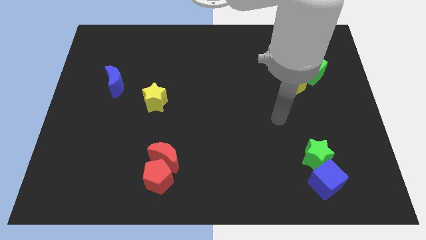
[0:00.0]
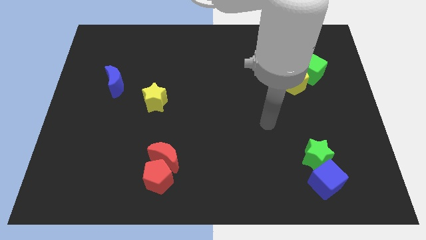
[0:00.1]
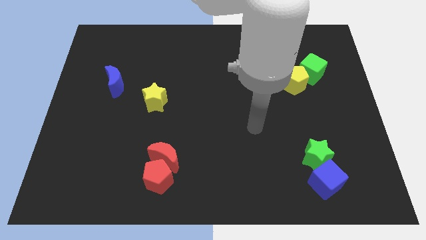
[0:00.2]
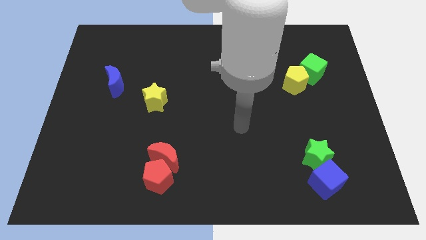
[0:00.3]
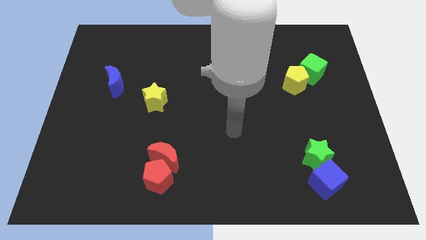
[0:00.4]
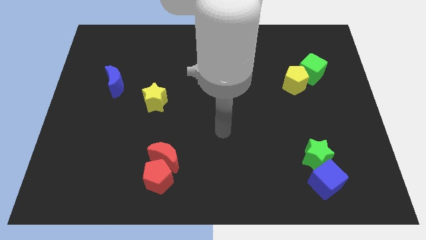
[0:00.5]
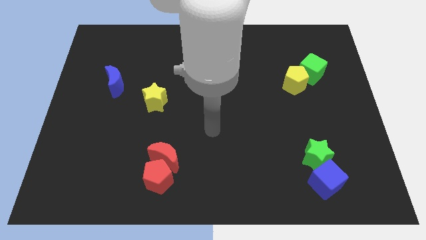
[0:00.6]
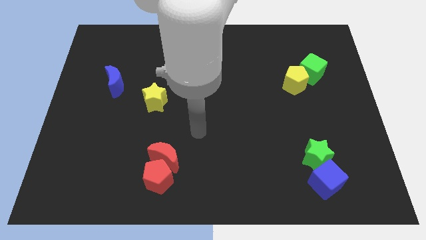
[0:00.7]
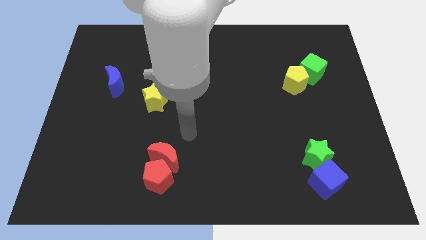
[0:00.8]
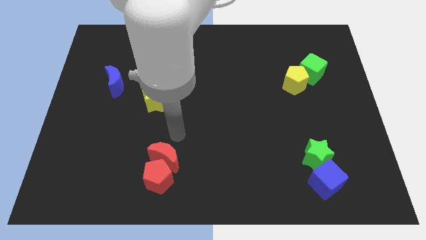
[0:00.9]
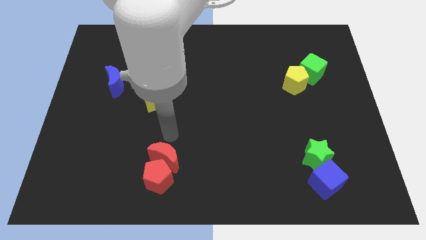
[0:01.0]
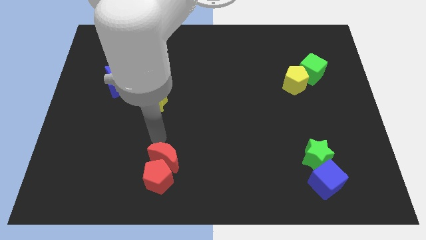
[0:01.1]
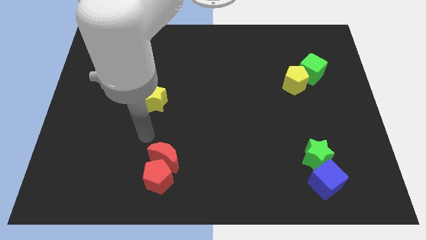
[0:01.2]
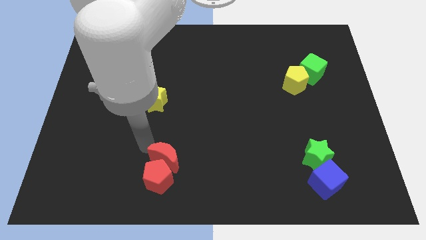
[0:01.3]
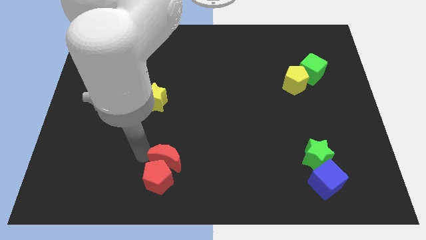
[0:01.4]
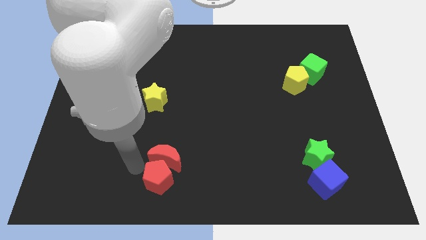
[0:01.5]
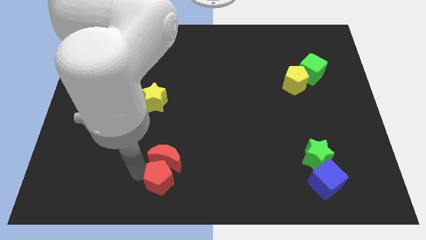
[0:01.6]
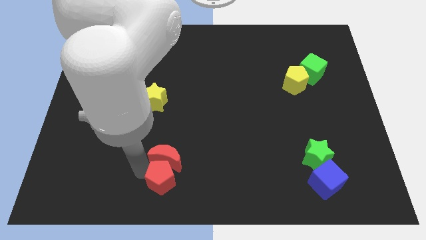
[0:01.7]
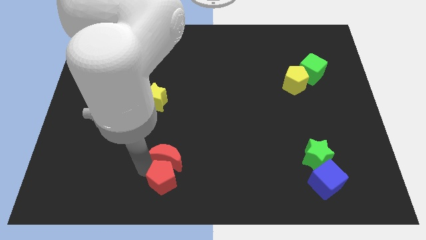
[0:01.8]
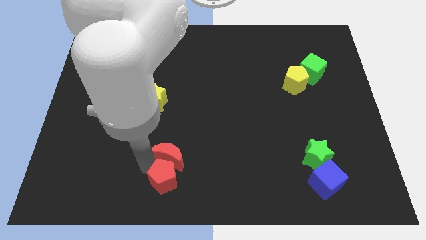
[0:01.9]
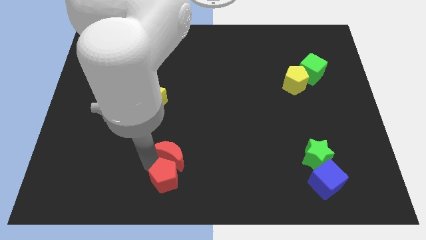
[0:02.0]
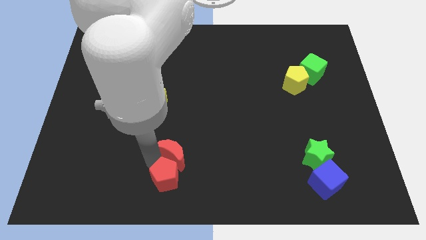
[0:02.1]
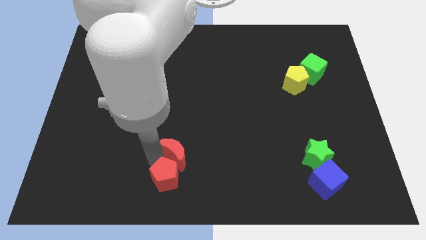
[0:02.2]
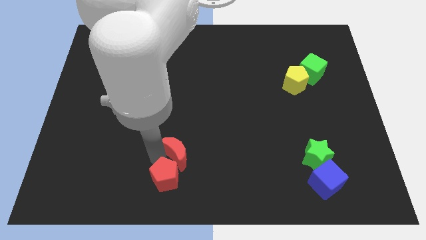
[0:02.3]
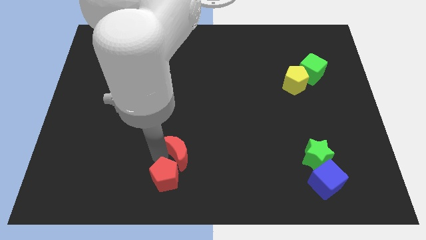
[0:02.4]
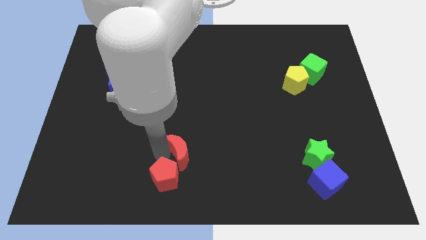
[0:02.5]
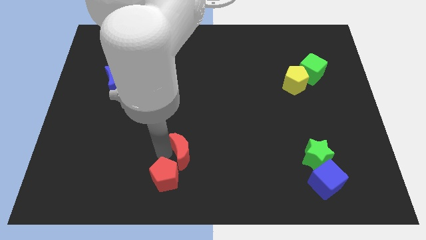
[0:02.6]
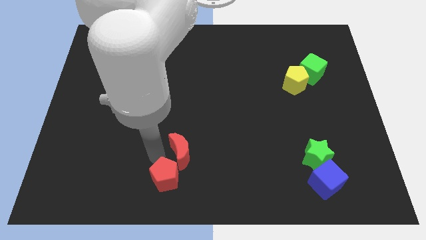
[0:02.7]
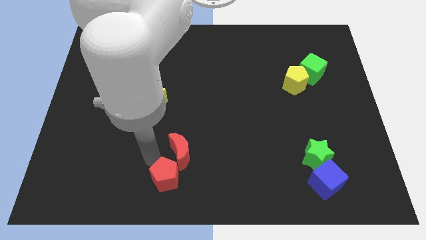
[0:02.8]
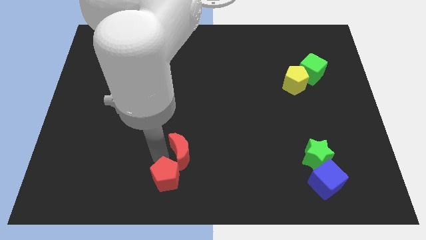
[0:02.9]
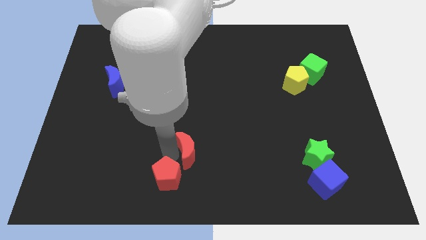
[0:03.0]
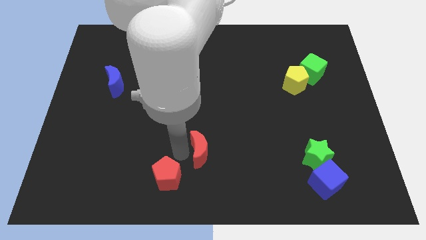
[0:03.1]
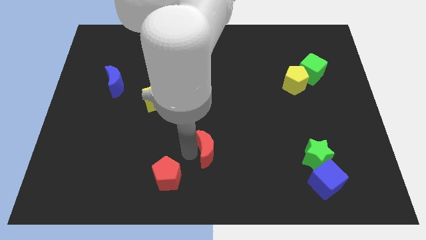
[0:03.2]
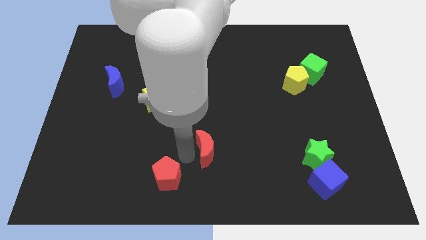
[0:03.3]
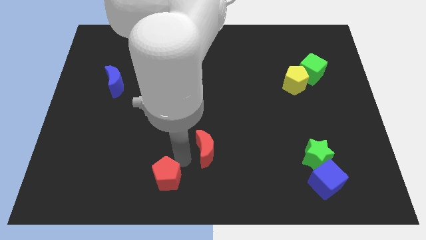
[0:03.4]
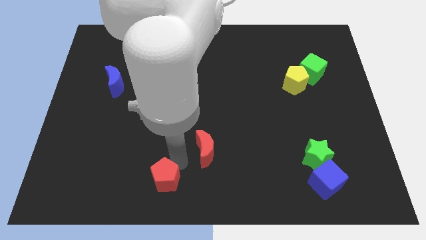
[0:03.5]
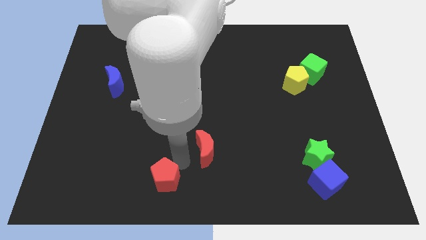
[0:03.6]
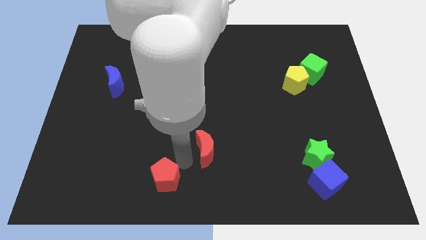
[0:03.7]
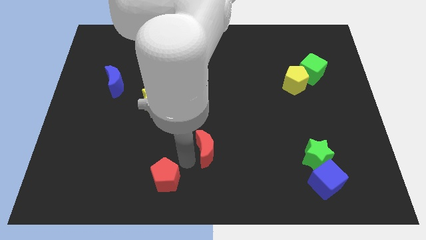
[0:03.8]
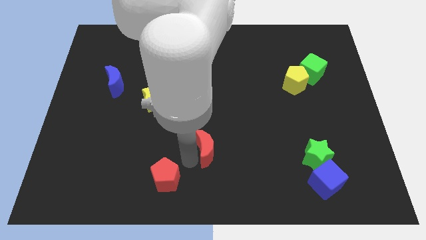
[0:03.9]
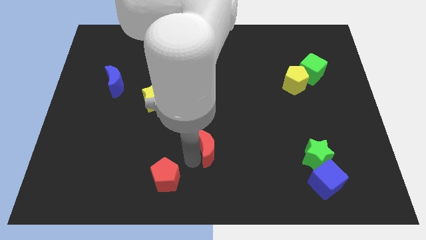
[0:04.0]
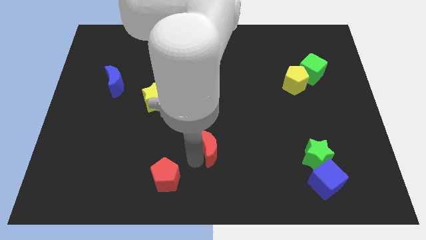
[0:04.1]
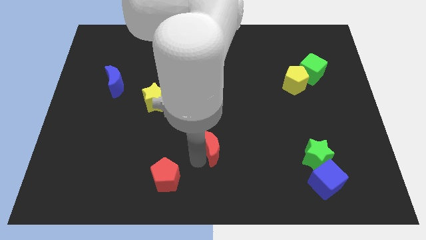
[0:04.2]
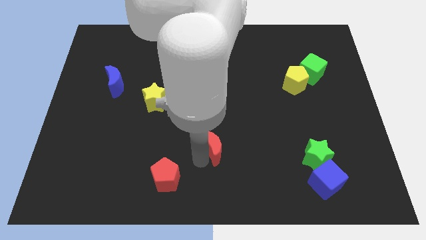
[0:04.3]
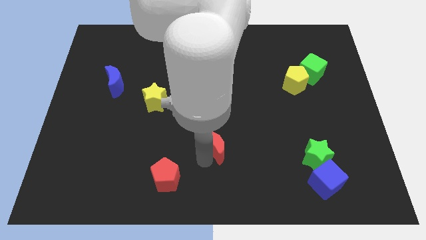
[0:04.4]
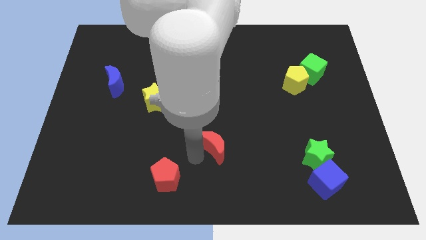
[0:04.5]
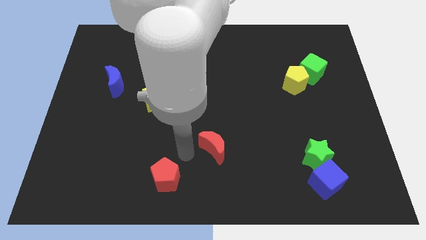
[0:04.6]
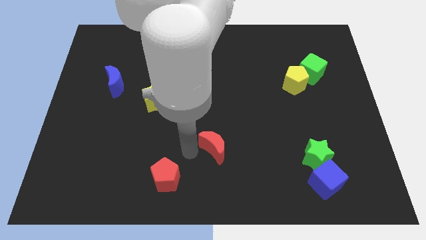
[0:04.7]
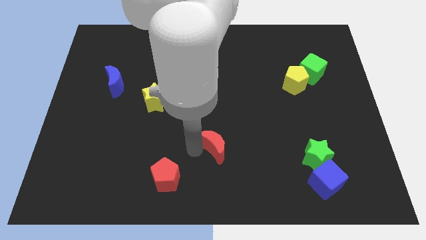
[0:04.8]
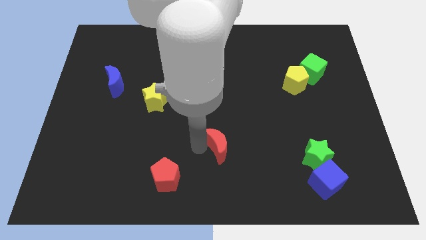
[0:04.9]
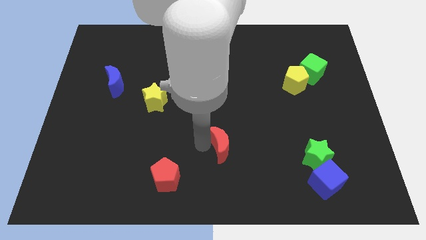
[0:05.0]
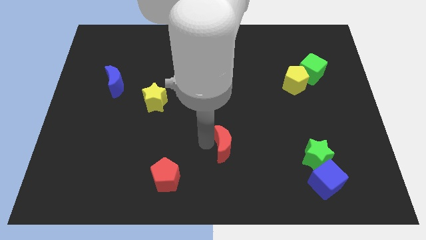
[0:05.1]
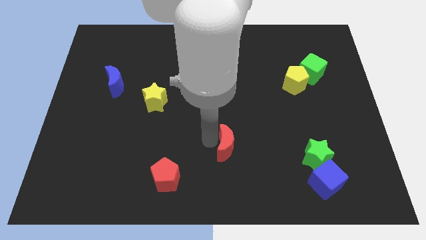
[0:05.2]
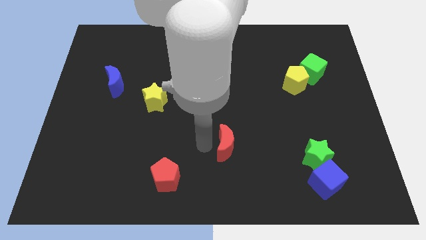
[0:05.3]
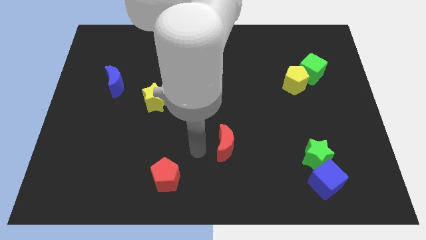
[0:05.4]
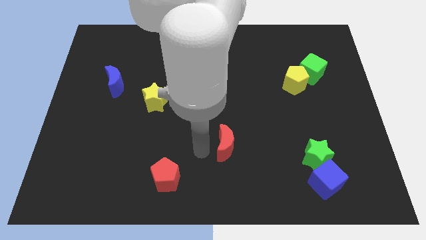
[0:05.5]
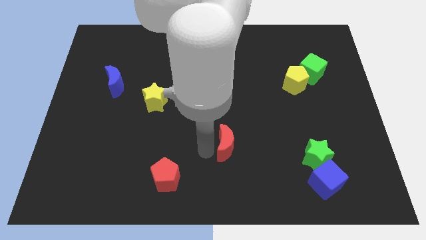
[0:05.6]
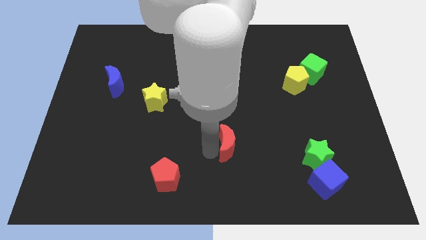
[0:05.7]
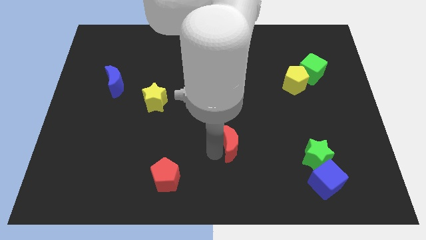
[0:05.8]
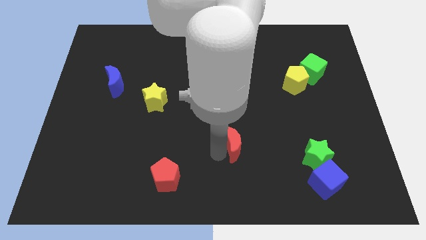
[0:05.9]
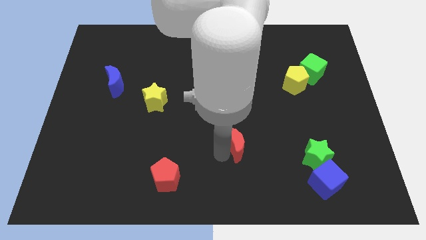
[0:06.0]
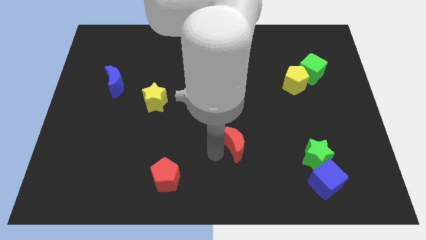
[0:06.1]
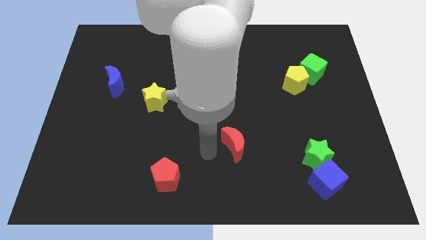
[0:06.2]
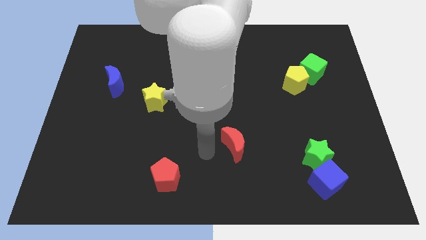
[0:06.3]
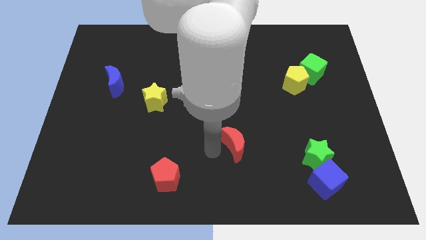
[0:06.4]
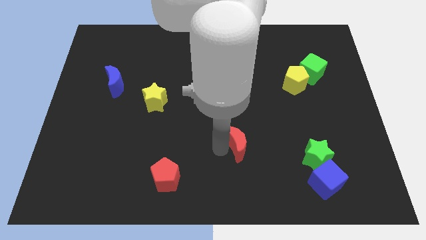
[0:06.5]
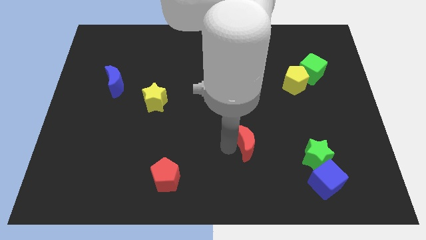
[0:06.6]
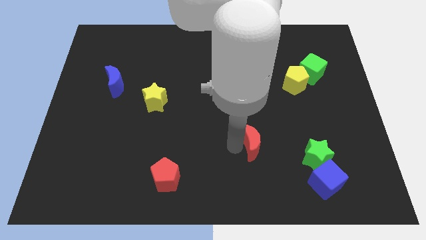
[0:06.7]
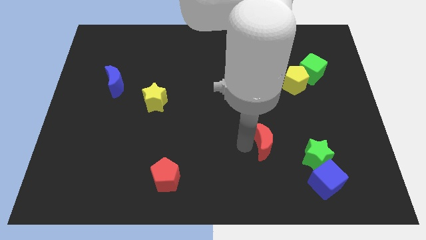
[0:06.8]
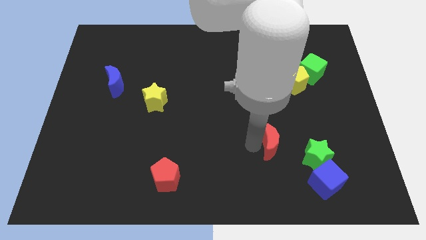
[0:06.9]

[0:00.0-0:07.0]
put the red moon to the top left side of the green star

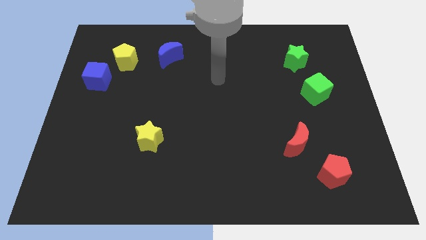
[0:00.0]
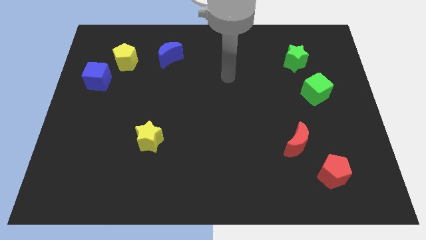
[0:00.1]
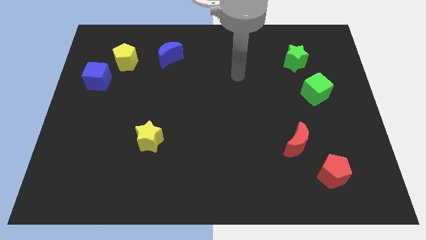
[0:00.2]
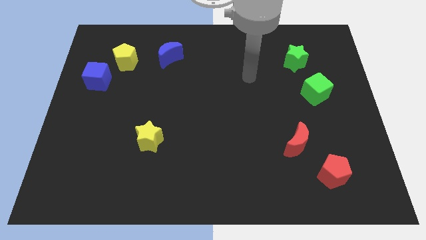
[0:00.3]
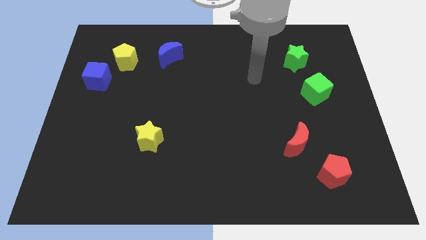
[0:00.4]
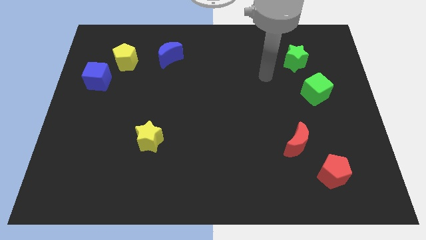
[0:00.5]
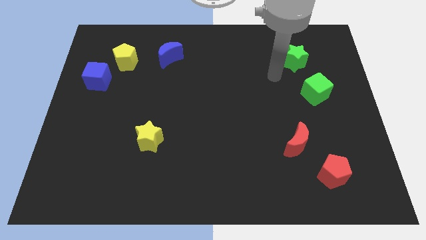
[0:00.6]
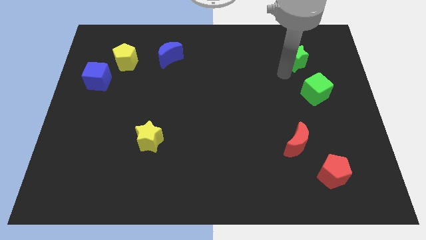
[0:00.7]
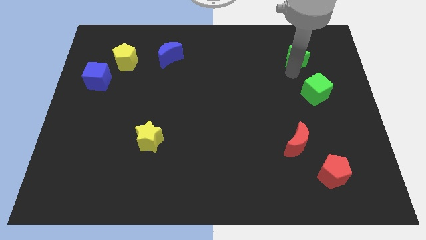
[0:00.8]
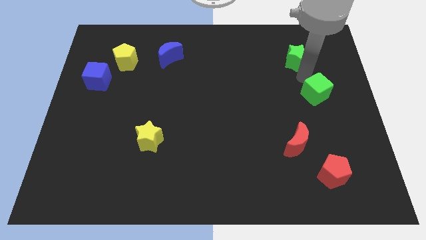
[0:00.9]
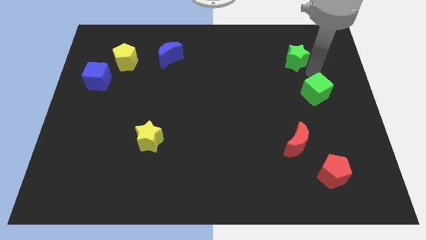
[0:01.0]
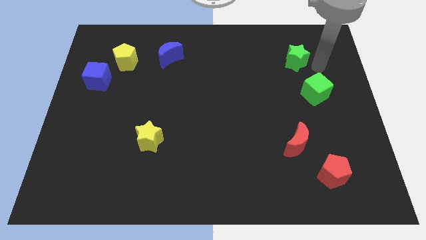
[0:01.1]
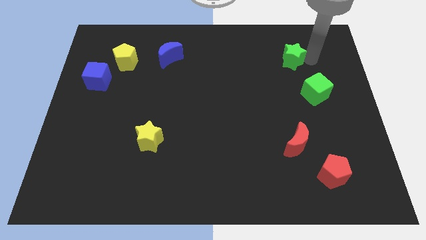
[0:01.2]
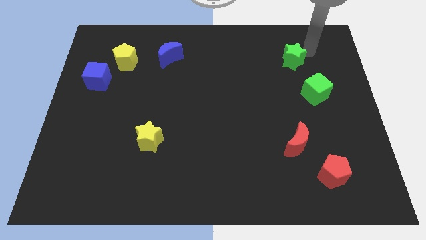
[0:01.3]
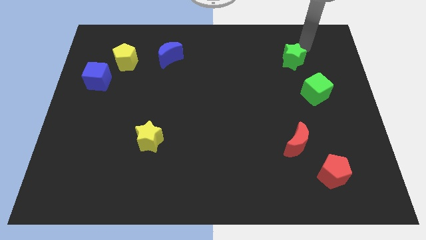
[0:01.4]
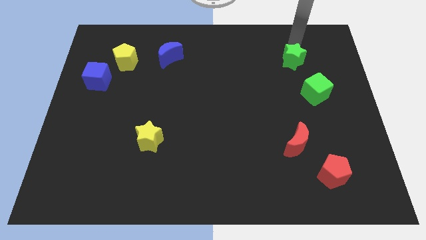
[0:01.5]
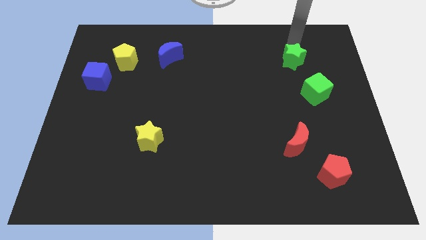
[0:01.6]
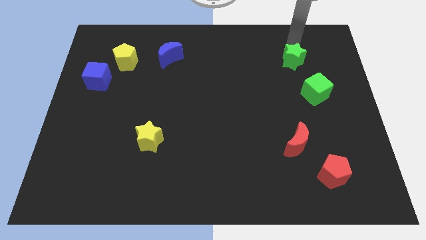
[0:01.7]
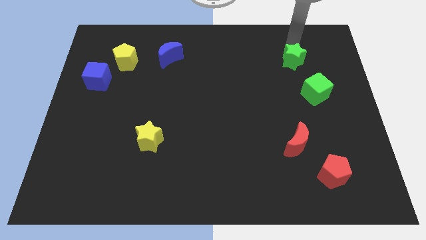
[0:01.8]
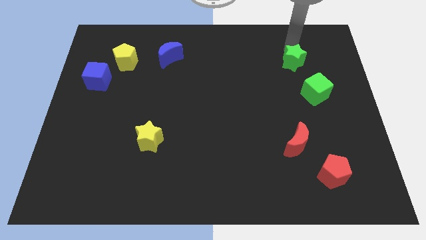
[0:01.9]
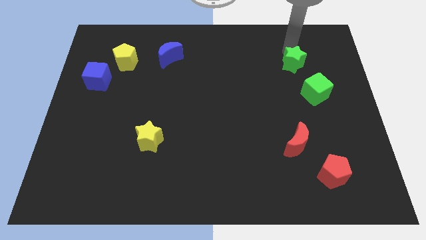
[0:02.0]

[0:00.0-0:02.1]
put the green star diagonally up and to the left of the green cube
